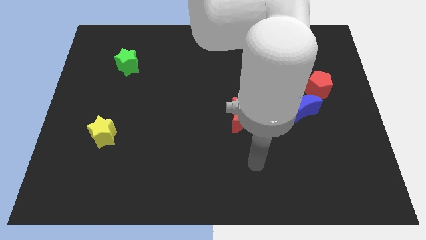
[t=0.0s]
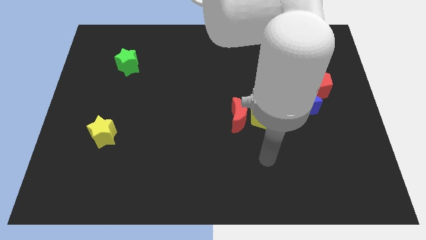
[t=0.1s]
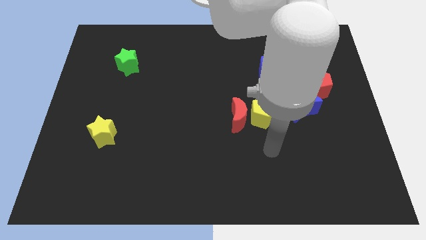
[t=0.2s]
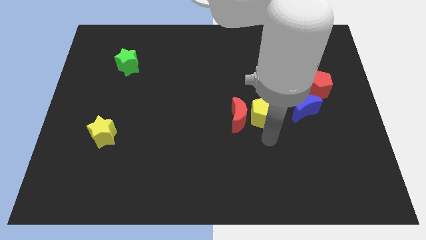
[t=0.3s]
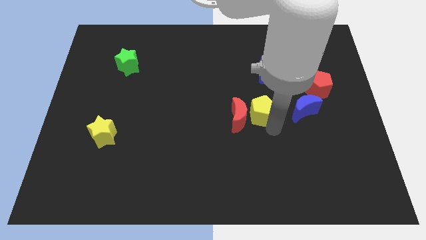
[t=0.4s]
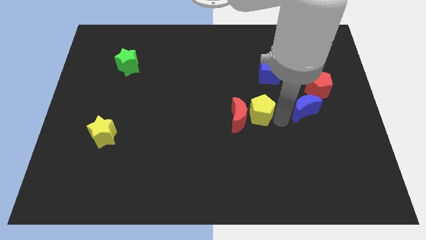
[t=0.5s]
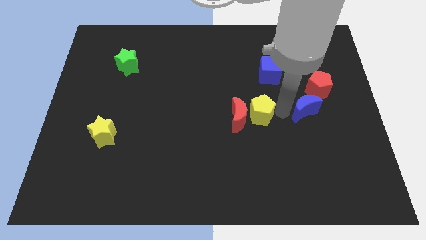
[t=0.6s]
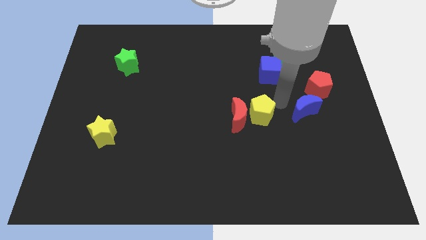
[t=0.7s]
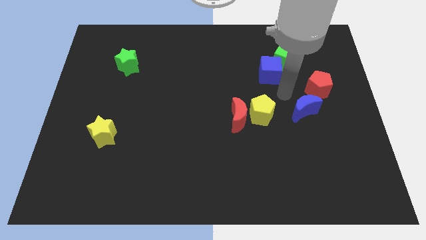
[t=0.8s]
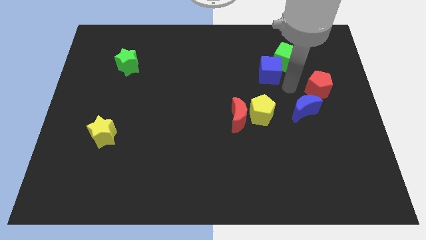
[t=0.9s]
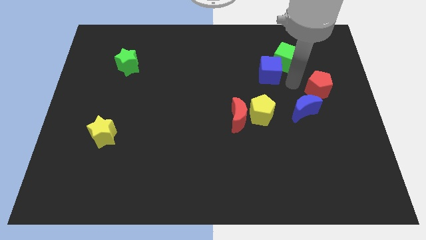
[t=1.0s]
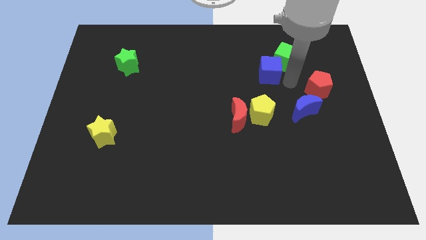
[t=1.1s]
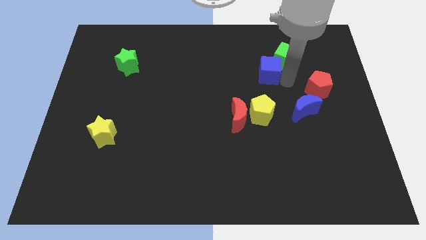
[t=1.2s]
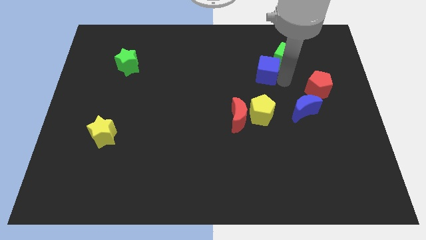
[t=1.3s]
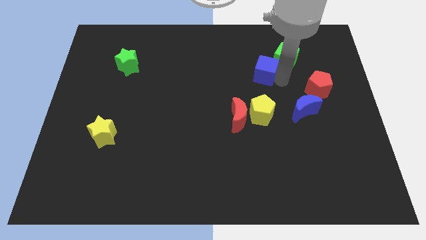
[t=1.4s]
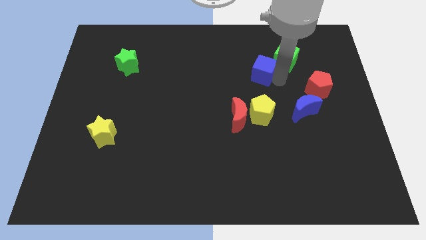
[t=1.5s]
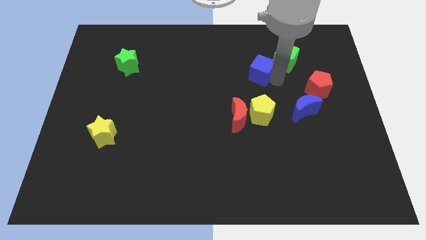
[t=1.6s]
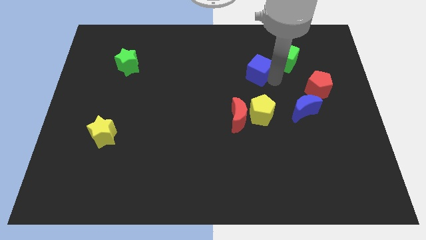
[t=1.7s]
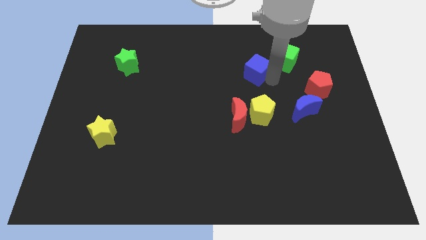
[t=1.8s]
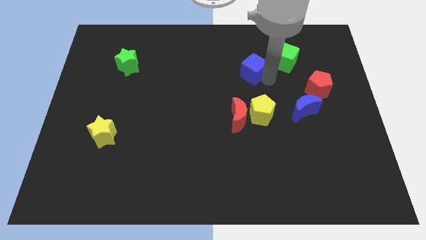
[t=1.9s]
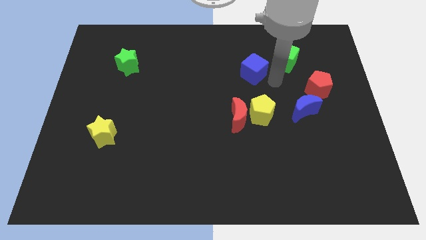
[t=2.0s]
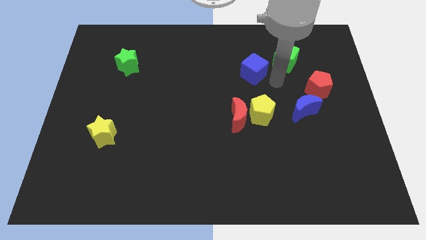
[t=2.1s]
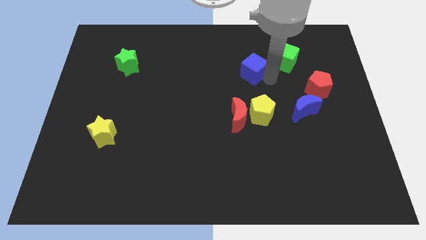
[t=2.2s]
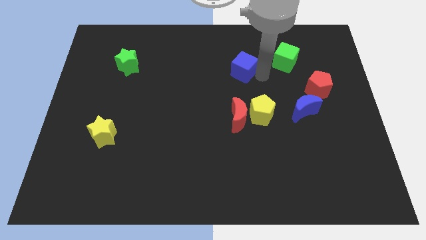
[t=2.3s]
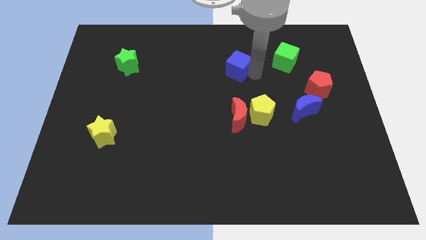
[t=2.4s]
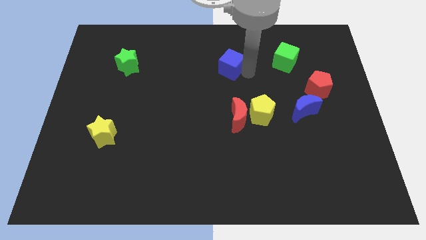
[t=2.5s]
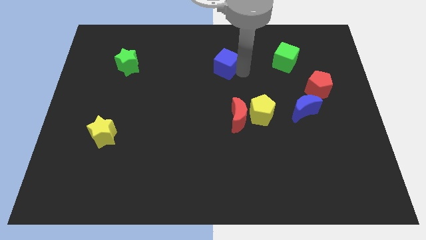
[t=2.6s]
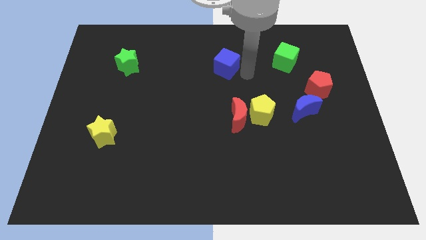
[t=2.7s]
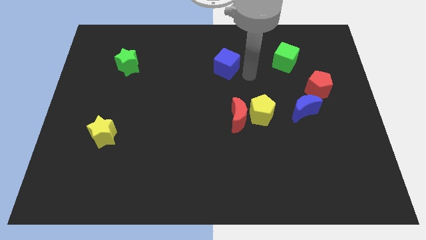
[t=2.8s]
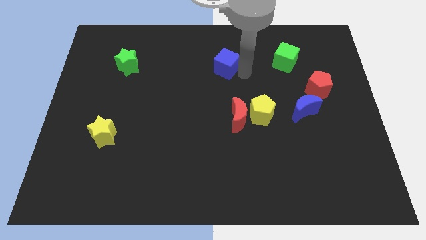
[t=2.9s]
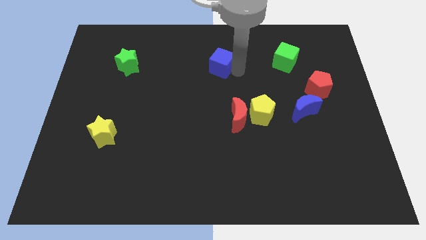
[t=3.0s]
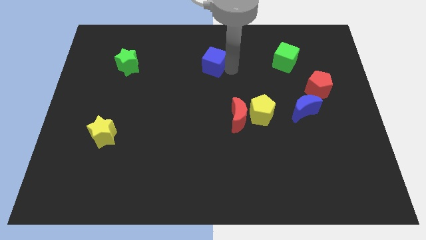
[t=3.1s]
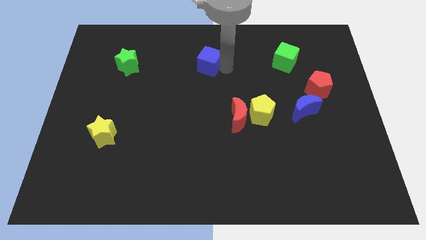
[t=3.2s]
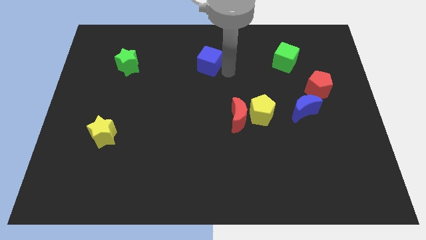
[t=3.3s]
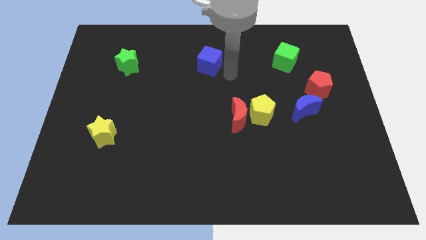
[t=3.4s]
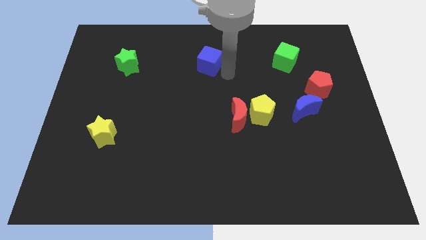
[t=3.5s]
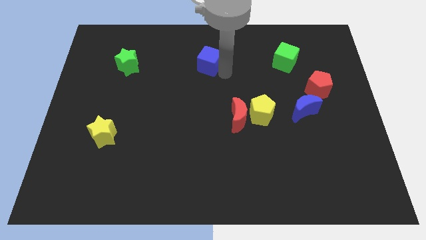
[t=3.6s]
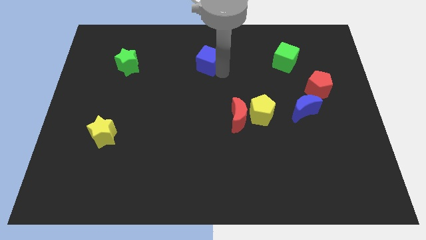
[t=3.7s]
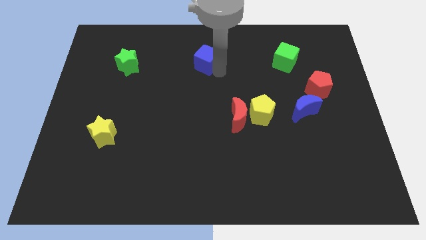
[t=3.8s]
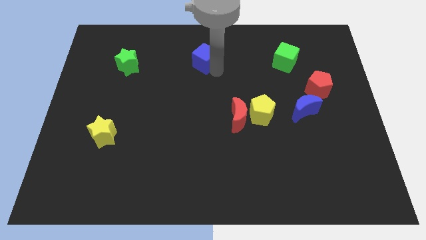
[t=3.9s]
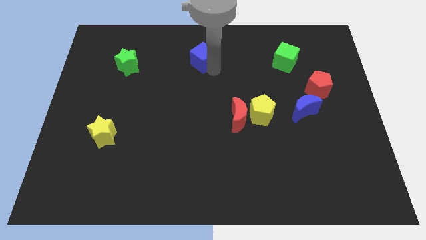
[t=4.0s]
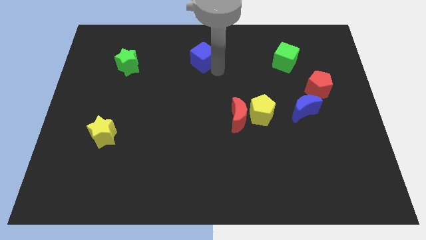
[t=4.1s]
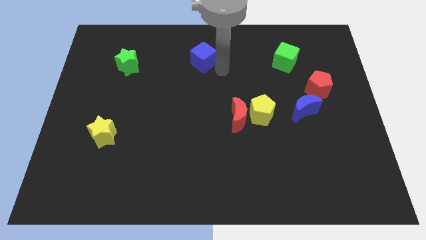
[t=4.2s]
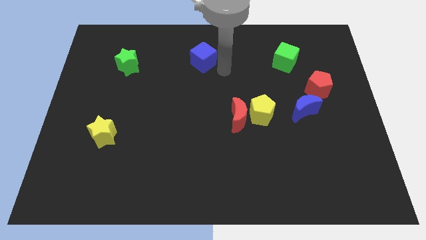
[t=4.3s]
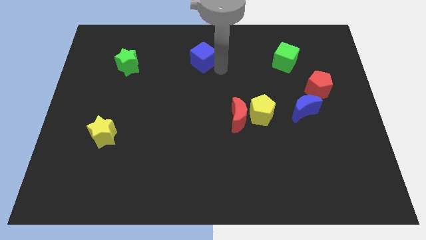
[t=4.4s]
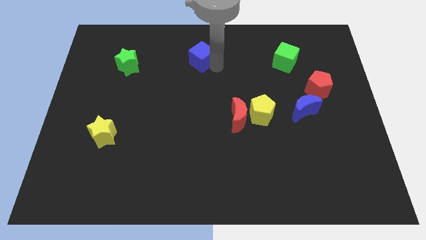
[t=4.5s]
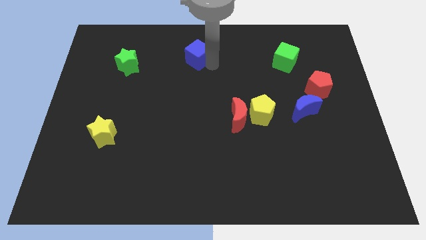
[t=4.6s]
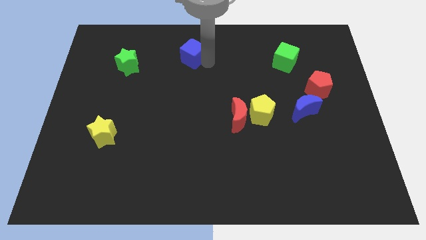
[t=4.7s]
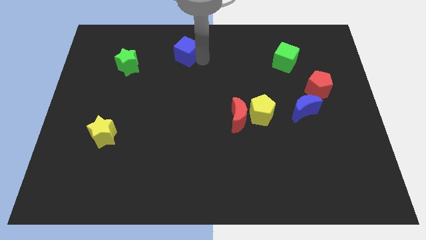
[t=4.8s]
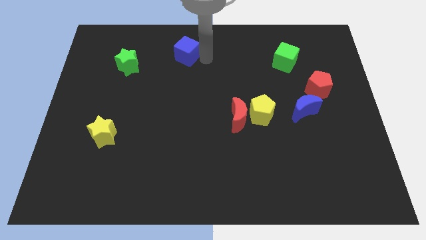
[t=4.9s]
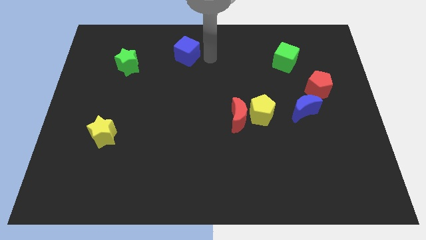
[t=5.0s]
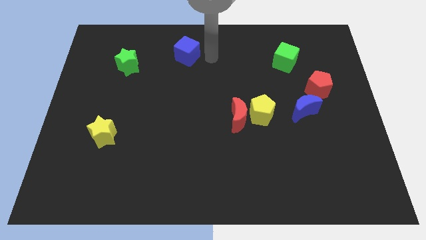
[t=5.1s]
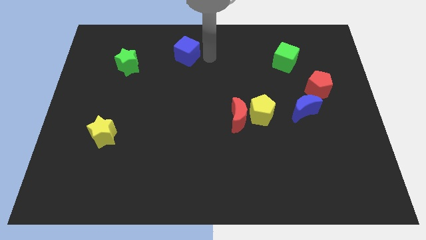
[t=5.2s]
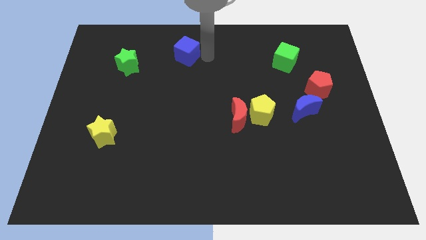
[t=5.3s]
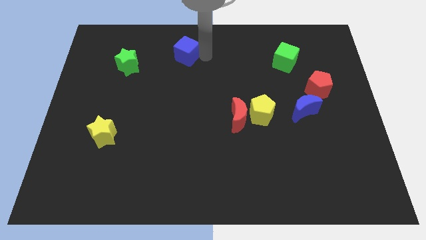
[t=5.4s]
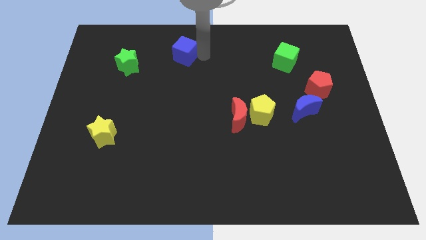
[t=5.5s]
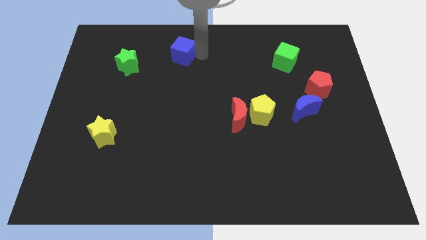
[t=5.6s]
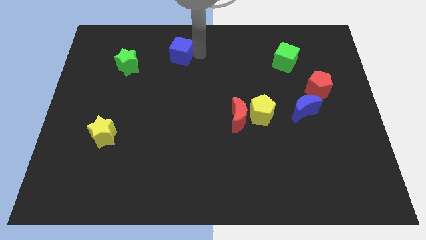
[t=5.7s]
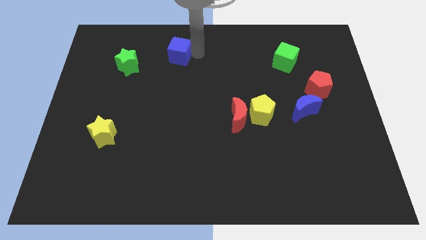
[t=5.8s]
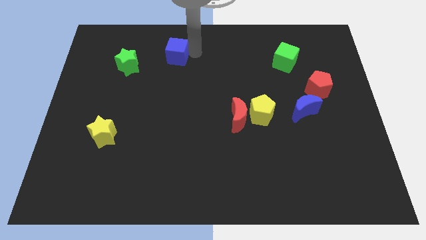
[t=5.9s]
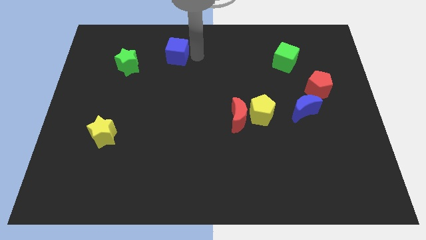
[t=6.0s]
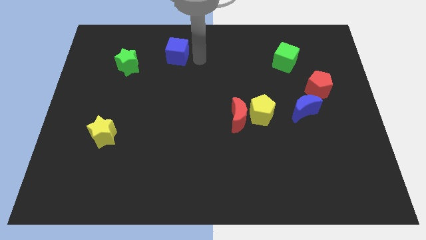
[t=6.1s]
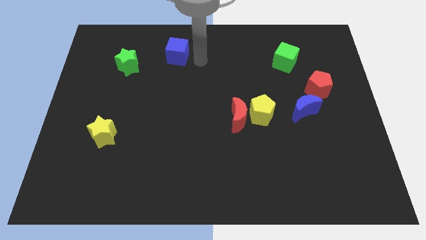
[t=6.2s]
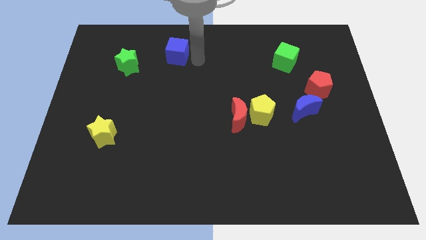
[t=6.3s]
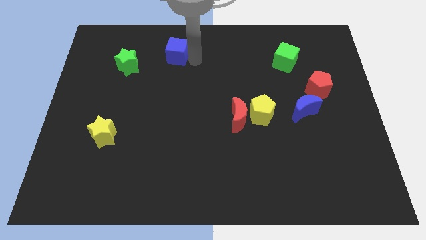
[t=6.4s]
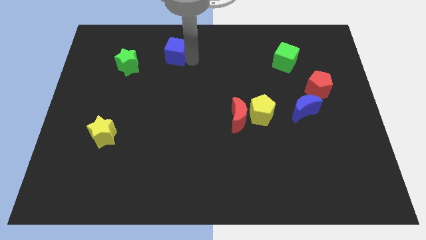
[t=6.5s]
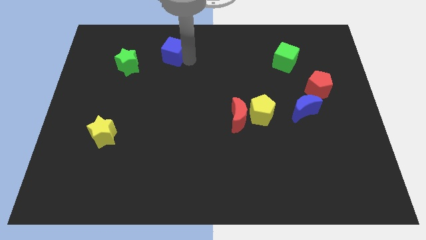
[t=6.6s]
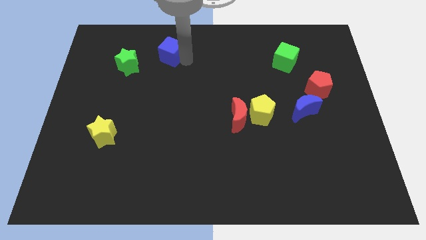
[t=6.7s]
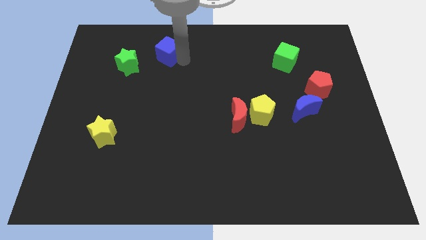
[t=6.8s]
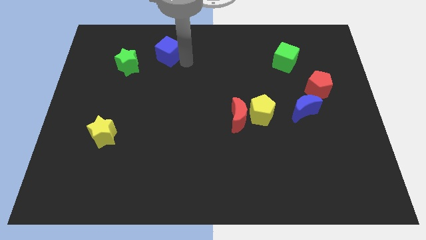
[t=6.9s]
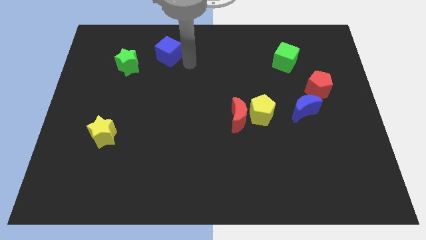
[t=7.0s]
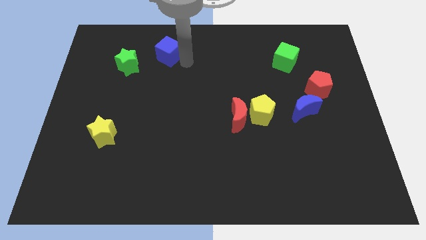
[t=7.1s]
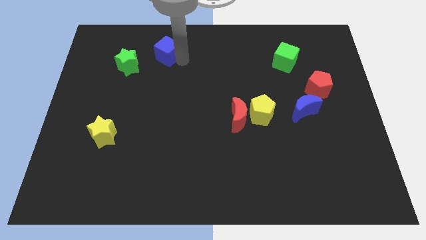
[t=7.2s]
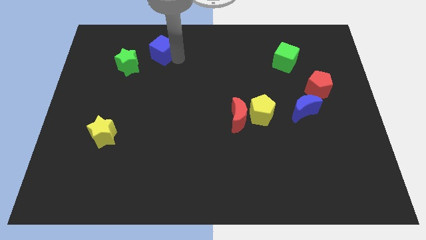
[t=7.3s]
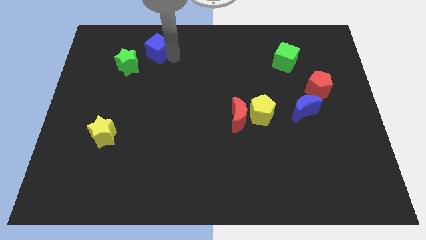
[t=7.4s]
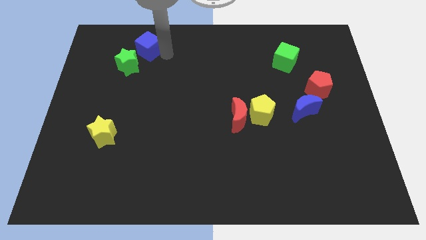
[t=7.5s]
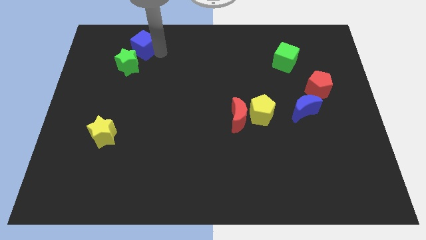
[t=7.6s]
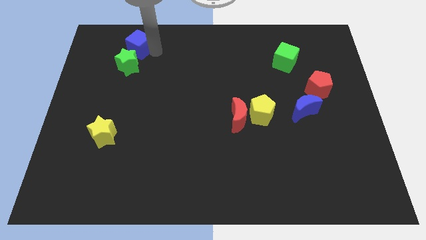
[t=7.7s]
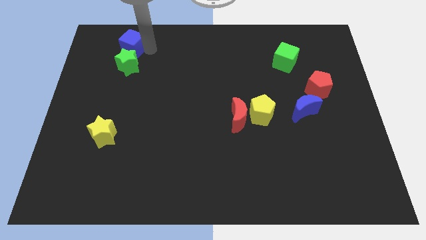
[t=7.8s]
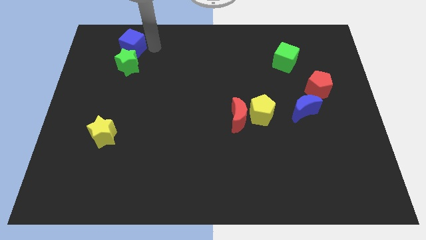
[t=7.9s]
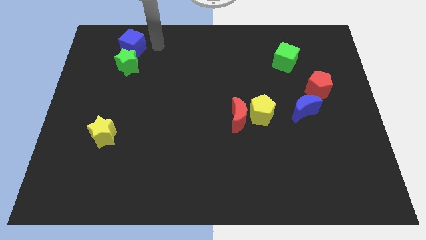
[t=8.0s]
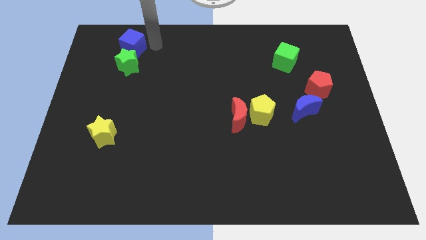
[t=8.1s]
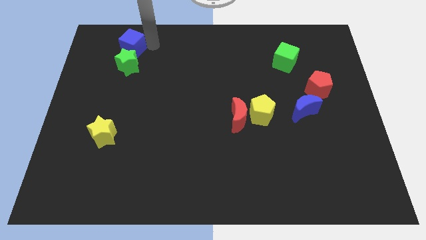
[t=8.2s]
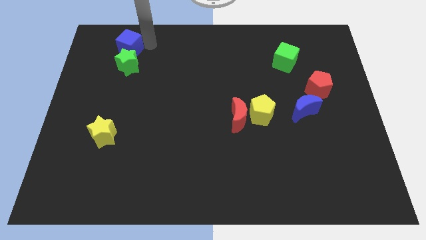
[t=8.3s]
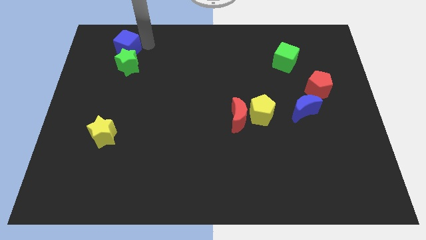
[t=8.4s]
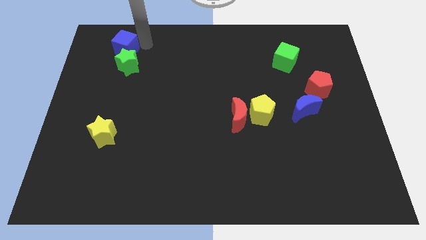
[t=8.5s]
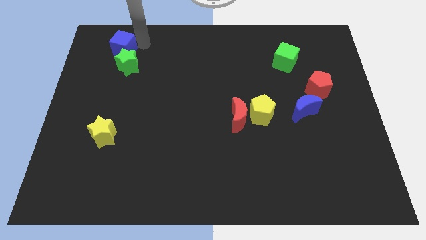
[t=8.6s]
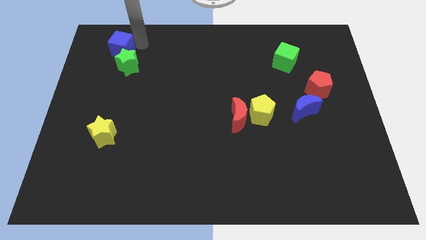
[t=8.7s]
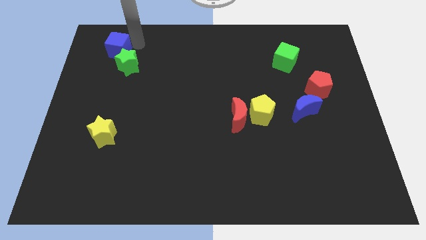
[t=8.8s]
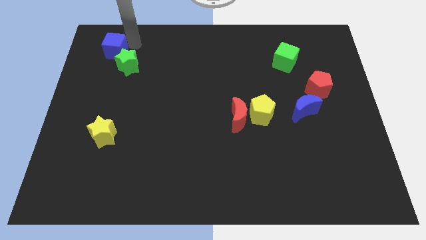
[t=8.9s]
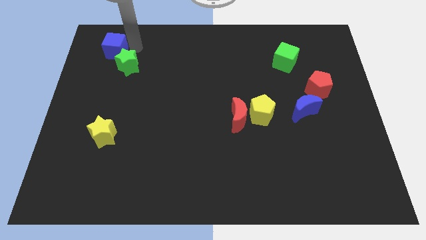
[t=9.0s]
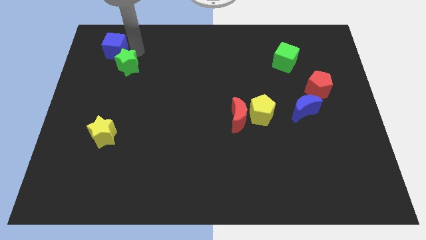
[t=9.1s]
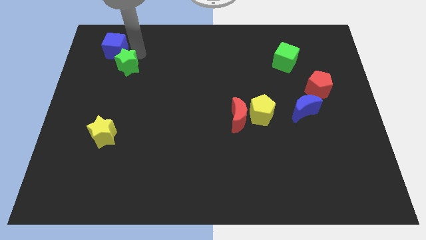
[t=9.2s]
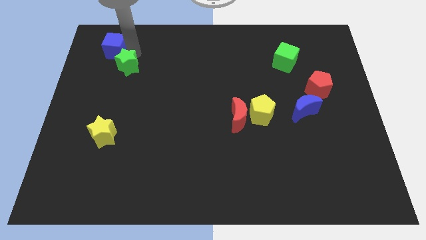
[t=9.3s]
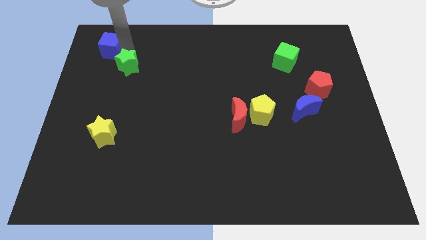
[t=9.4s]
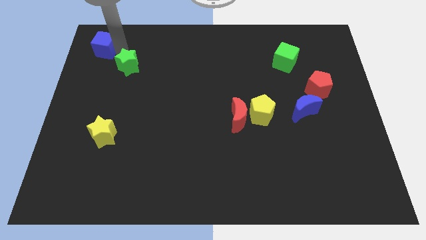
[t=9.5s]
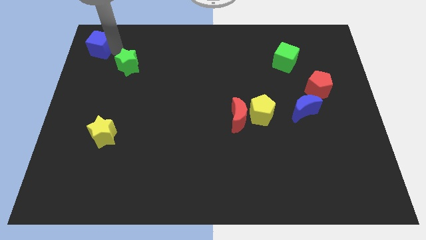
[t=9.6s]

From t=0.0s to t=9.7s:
put the blue cube to the top left corner
